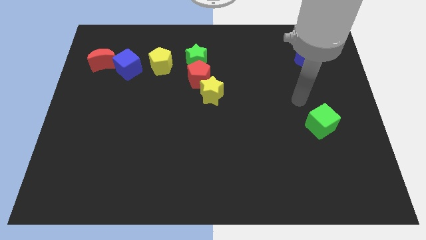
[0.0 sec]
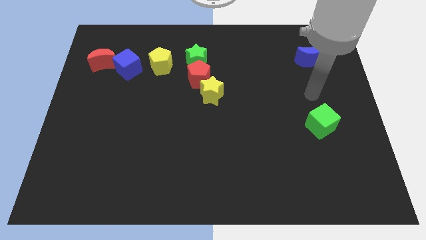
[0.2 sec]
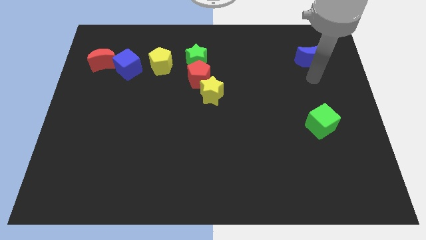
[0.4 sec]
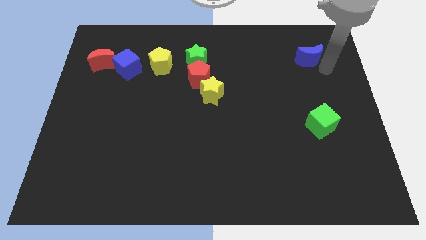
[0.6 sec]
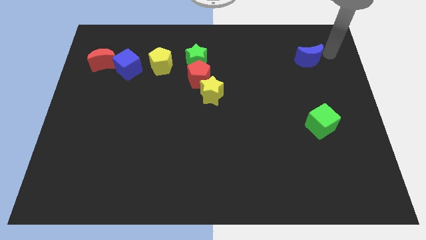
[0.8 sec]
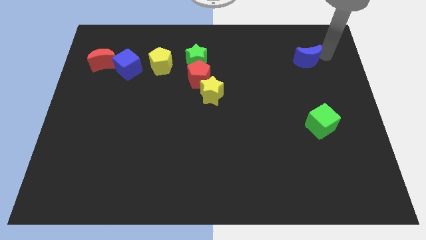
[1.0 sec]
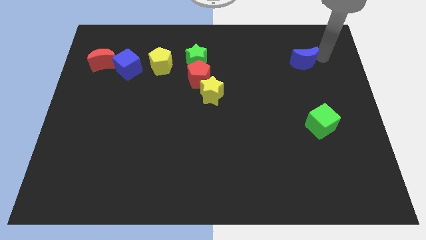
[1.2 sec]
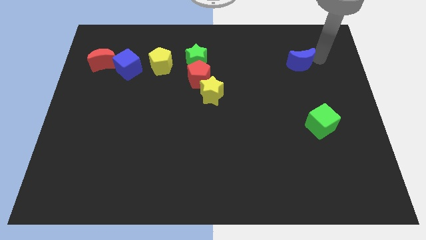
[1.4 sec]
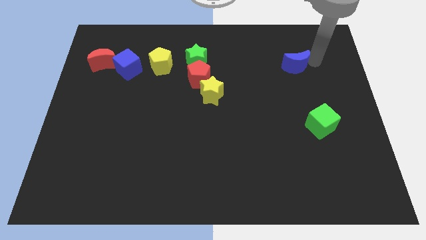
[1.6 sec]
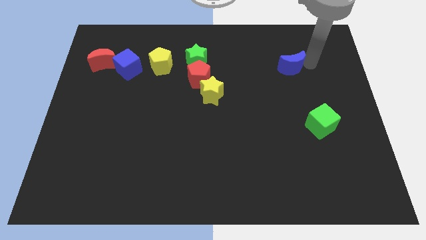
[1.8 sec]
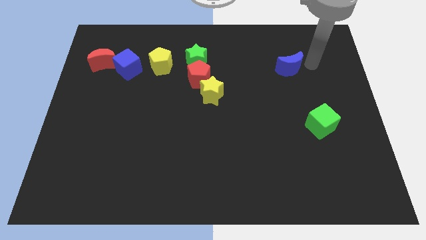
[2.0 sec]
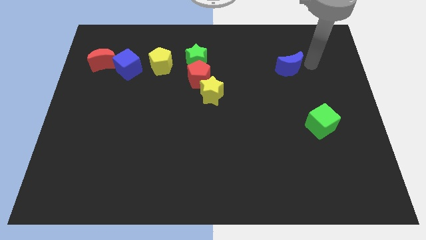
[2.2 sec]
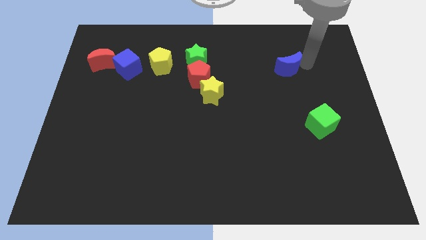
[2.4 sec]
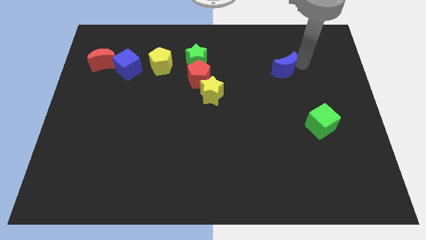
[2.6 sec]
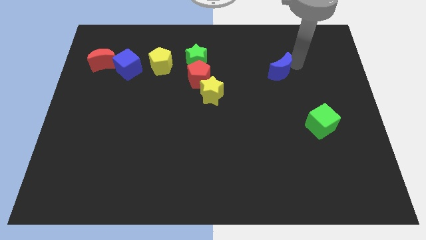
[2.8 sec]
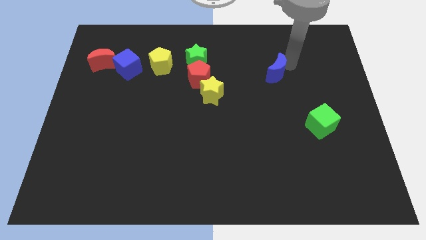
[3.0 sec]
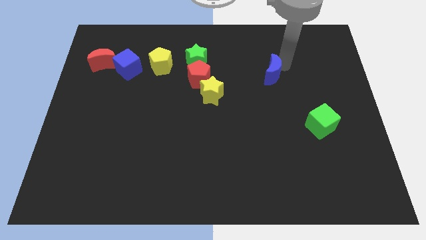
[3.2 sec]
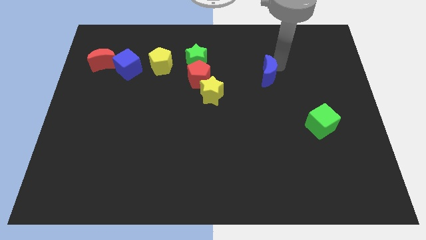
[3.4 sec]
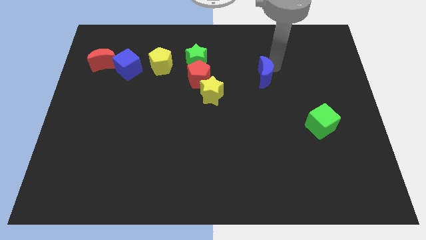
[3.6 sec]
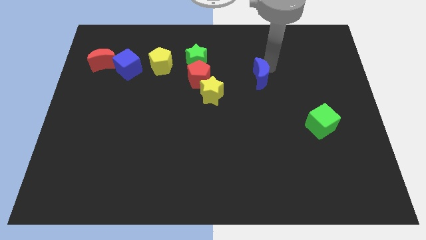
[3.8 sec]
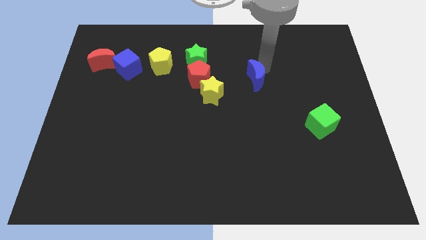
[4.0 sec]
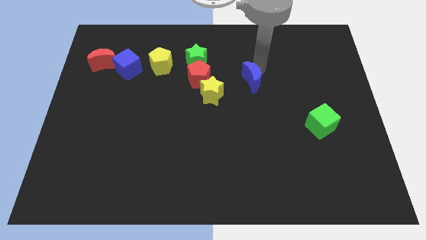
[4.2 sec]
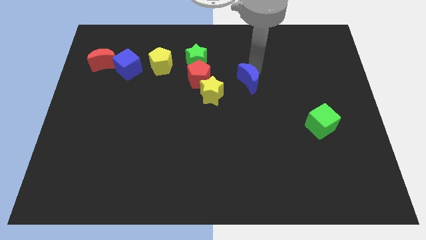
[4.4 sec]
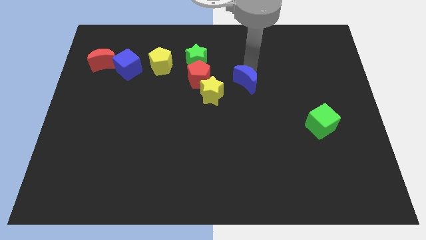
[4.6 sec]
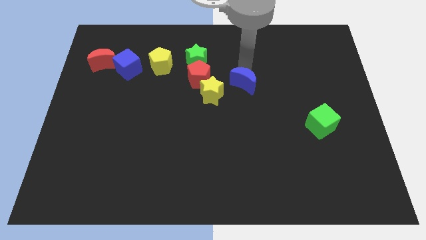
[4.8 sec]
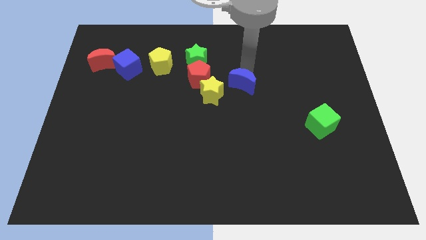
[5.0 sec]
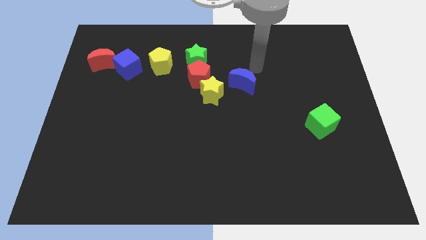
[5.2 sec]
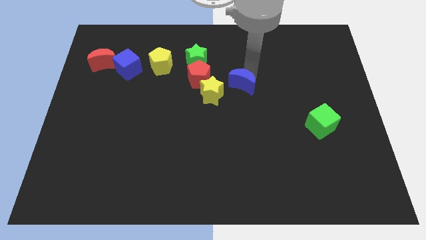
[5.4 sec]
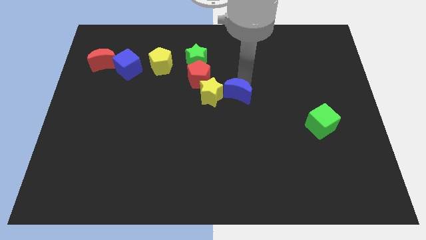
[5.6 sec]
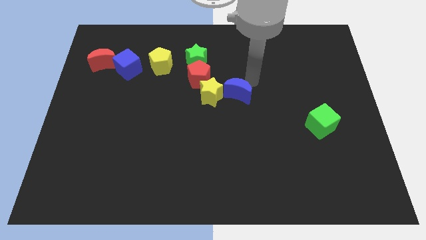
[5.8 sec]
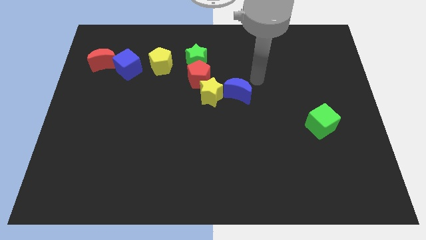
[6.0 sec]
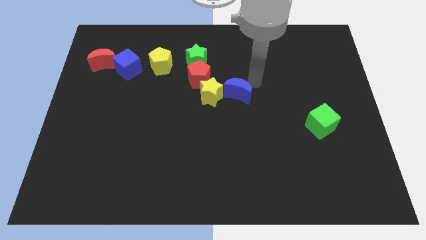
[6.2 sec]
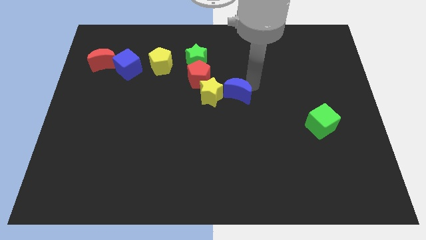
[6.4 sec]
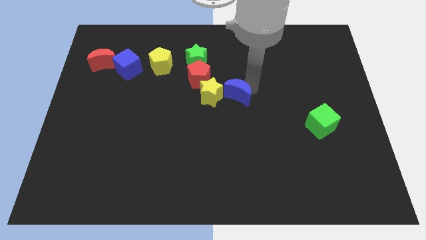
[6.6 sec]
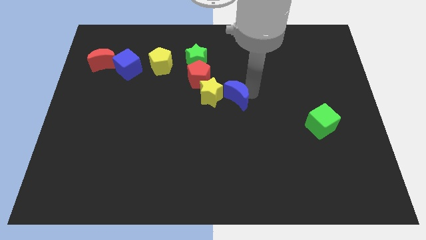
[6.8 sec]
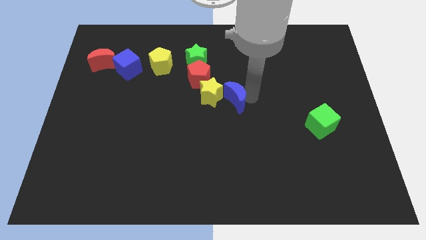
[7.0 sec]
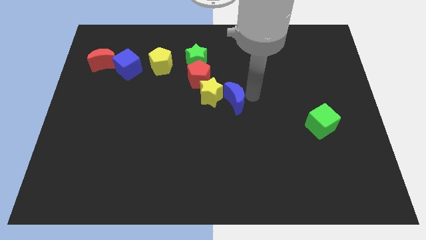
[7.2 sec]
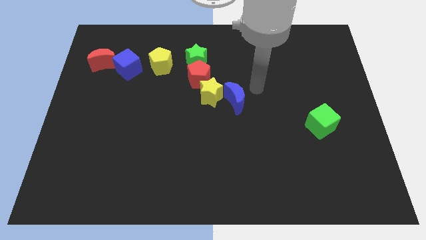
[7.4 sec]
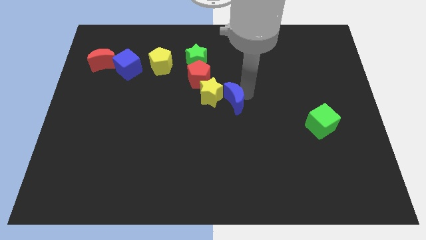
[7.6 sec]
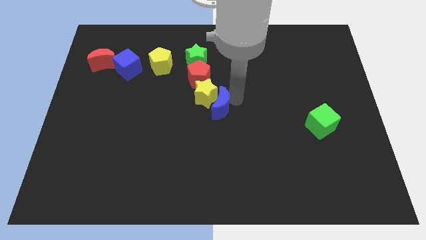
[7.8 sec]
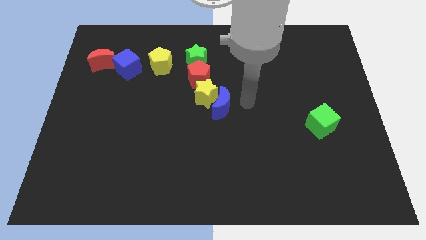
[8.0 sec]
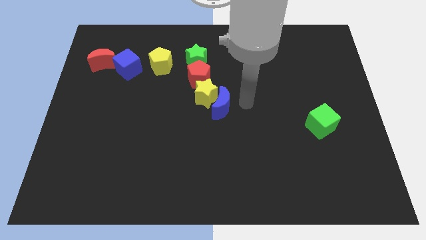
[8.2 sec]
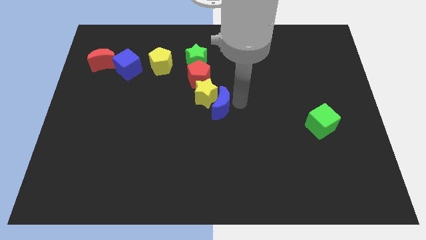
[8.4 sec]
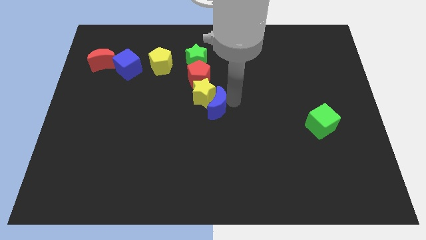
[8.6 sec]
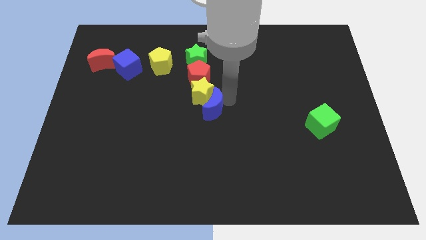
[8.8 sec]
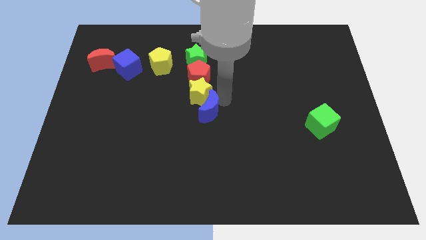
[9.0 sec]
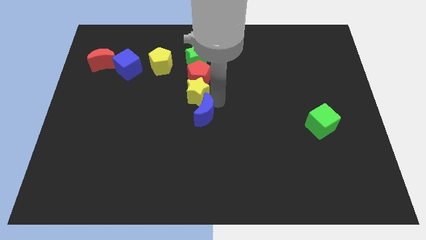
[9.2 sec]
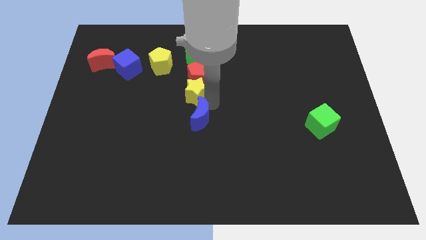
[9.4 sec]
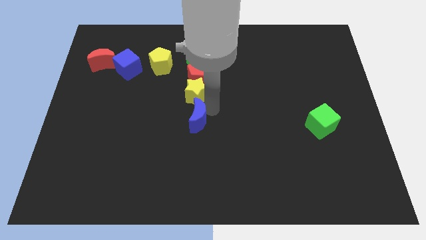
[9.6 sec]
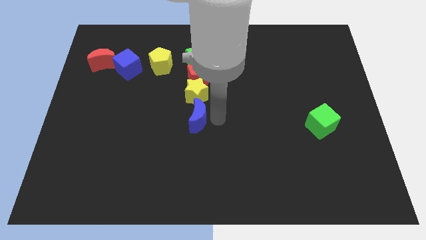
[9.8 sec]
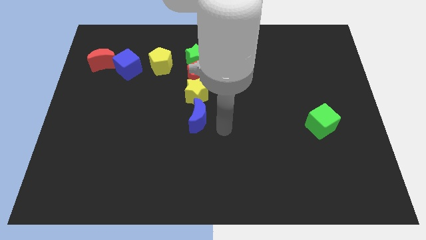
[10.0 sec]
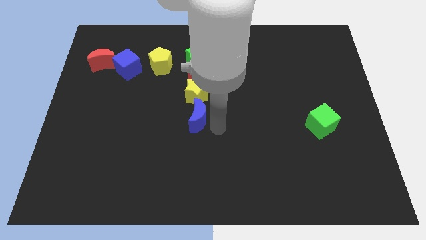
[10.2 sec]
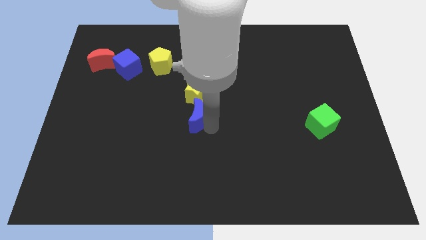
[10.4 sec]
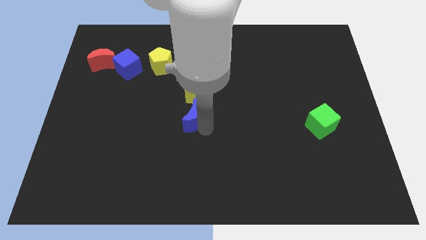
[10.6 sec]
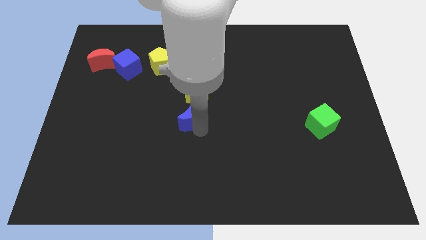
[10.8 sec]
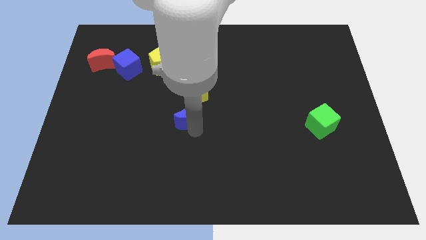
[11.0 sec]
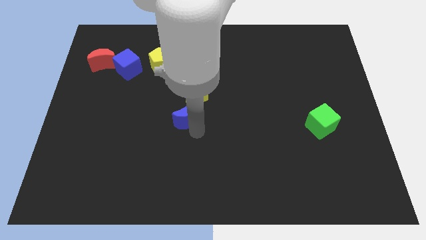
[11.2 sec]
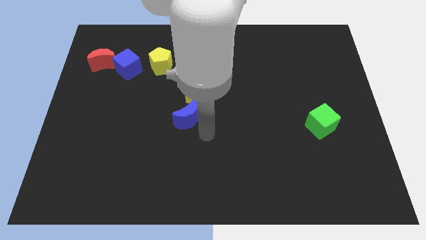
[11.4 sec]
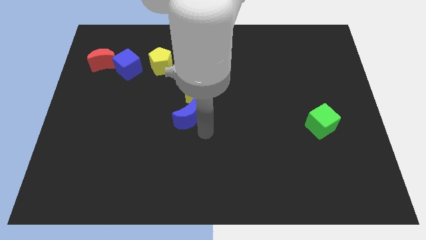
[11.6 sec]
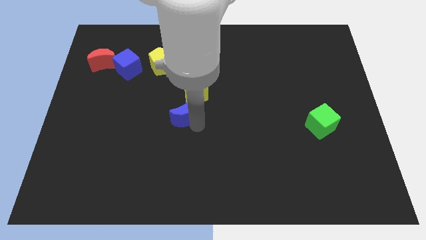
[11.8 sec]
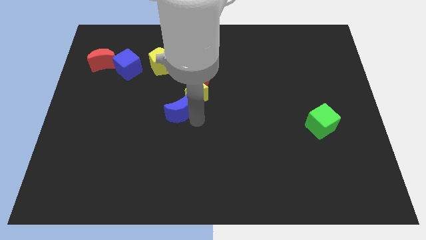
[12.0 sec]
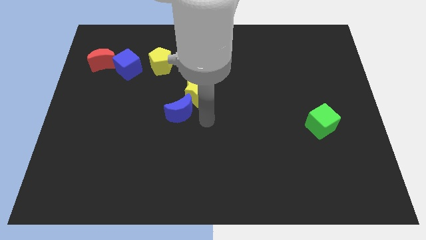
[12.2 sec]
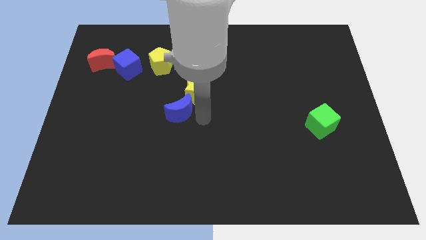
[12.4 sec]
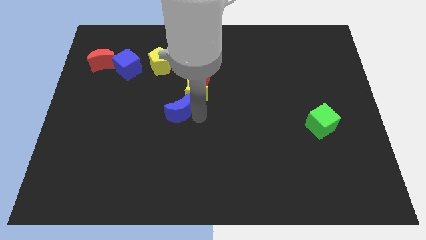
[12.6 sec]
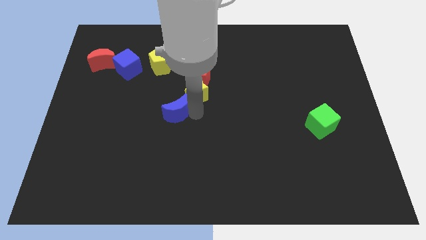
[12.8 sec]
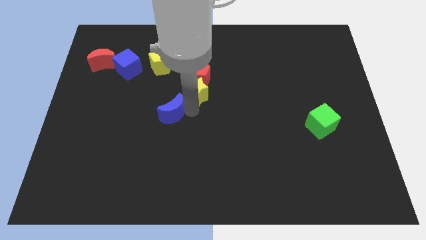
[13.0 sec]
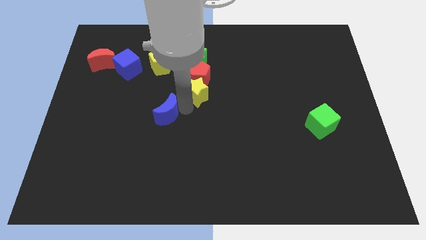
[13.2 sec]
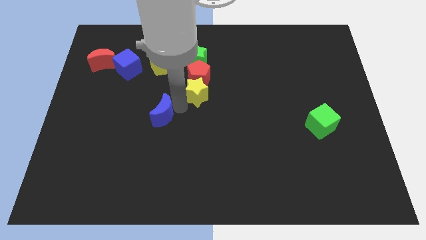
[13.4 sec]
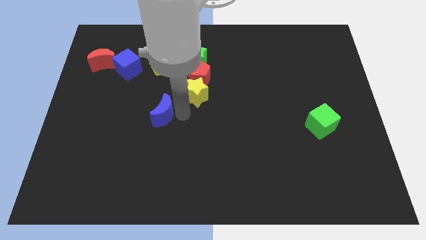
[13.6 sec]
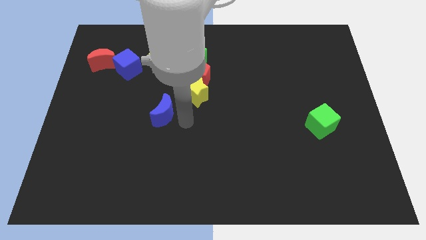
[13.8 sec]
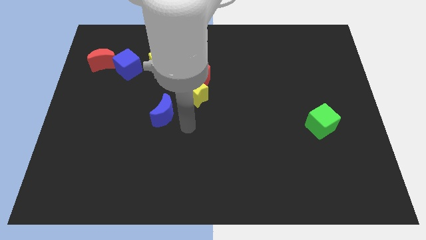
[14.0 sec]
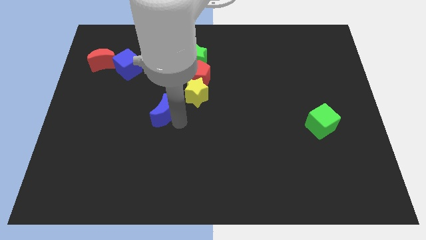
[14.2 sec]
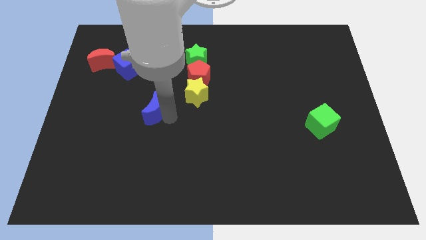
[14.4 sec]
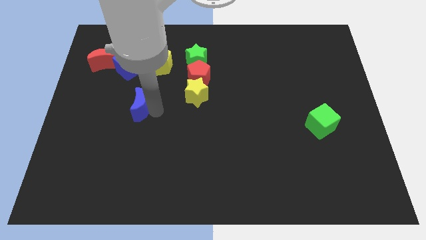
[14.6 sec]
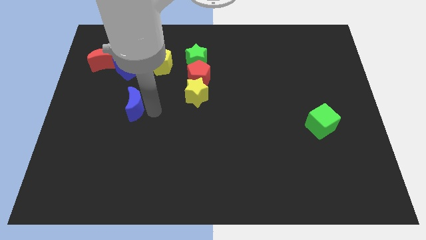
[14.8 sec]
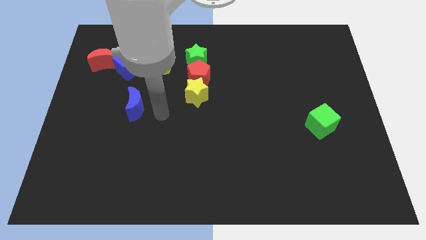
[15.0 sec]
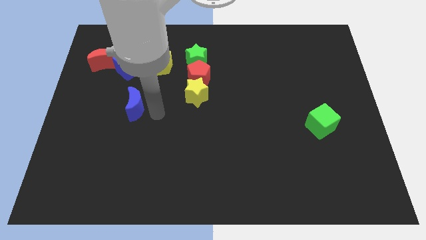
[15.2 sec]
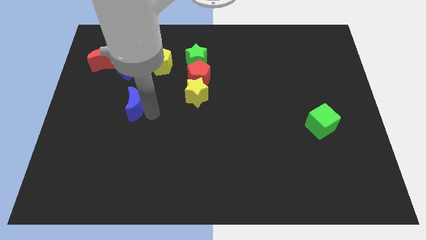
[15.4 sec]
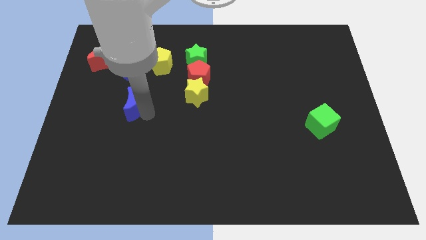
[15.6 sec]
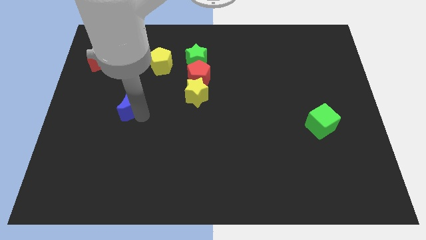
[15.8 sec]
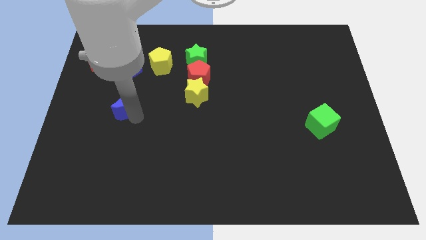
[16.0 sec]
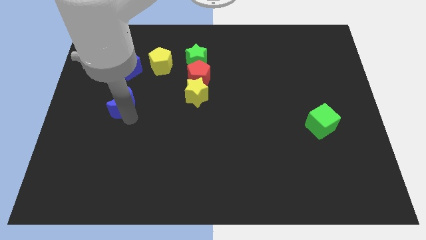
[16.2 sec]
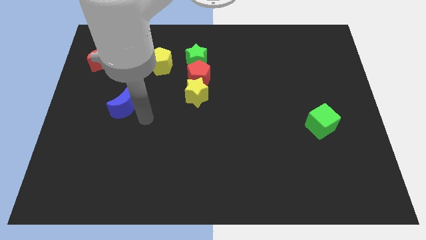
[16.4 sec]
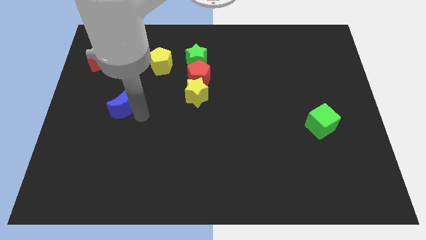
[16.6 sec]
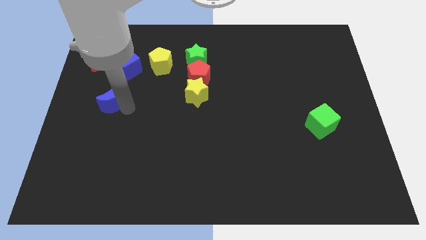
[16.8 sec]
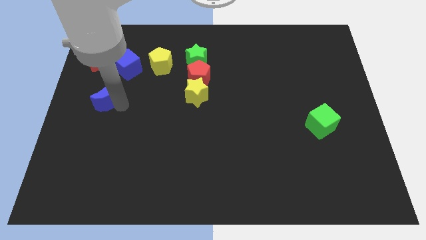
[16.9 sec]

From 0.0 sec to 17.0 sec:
push the blue moon below the red moon
